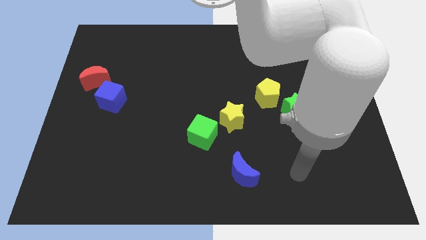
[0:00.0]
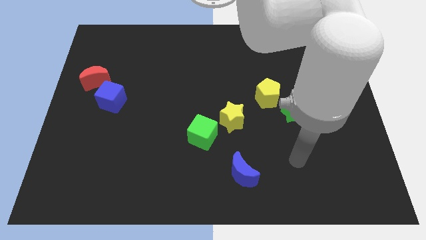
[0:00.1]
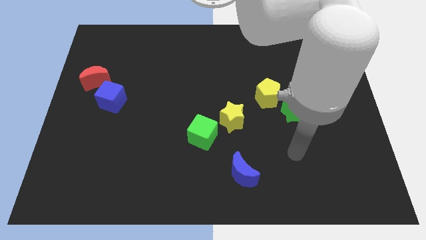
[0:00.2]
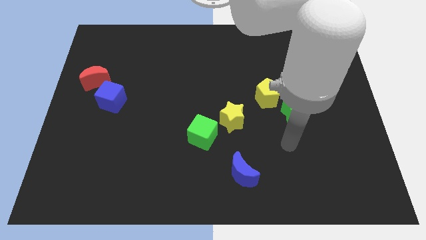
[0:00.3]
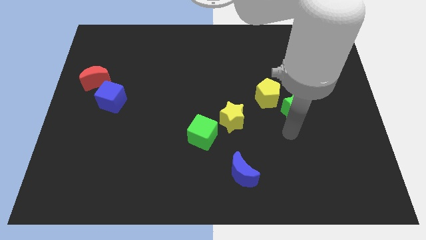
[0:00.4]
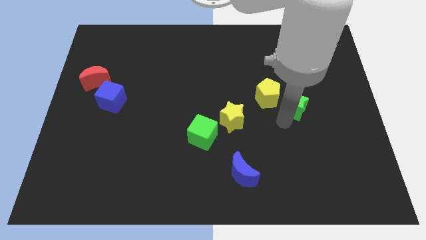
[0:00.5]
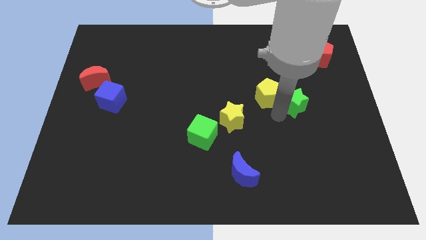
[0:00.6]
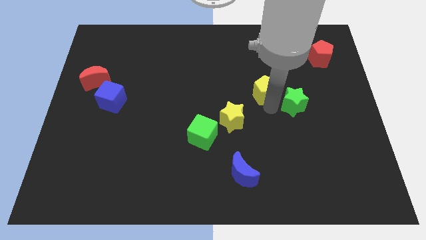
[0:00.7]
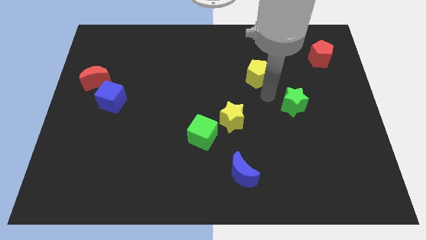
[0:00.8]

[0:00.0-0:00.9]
pull the green star apart from the yellow pentagon

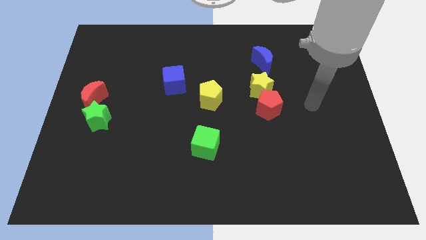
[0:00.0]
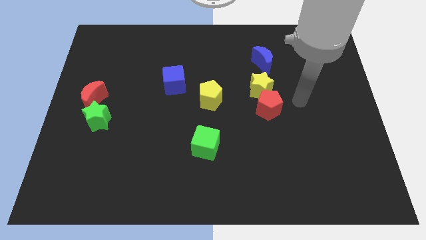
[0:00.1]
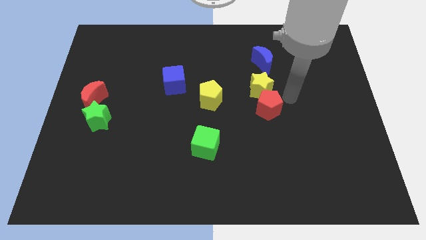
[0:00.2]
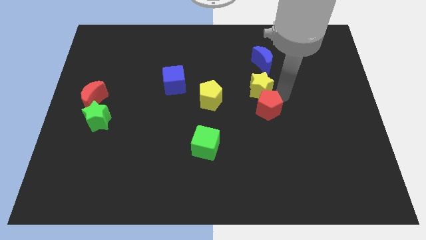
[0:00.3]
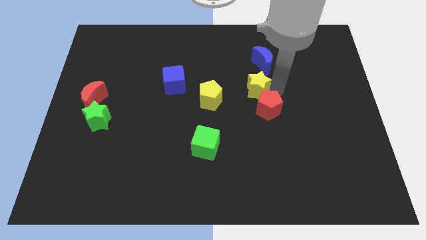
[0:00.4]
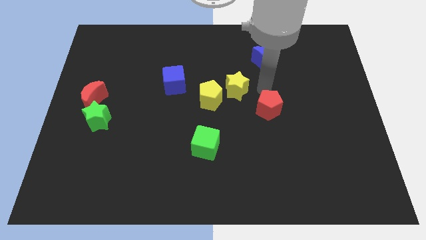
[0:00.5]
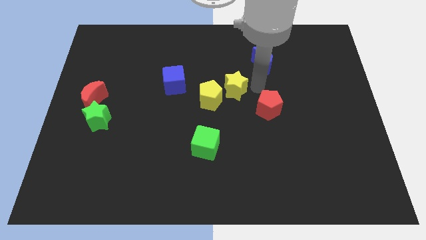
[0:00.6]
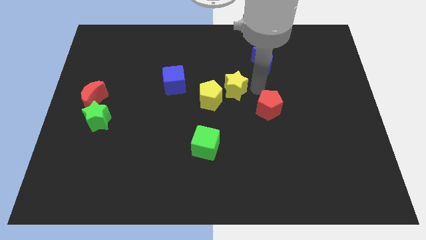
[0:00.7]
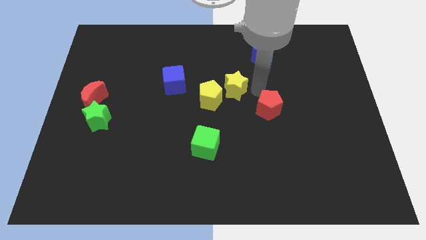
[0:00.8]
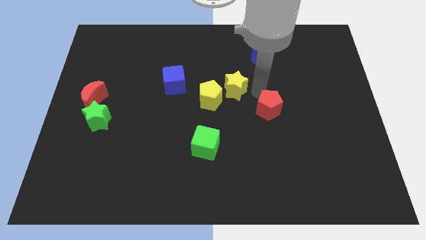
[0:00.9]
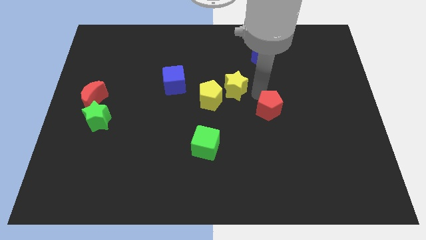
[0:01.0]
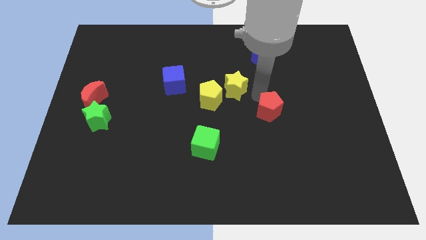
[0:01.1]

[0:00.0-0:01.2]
move the red pentagon away from the yellow star

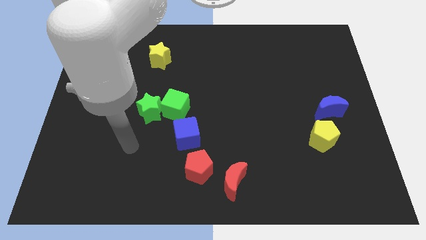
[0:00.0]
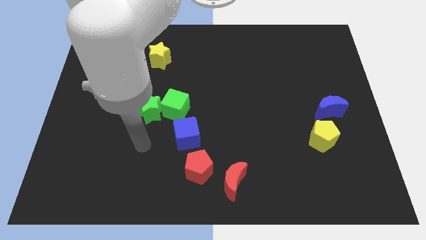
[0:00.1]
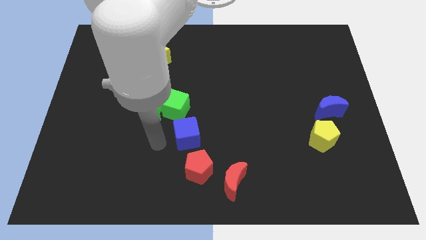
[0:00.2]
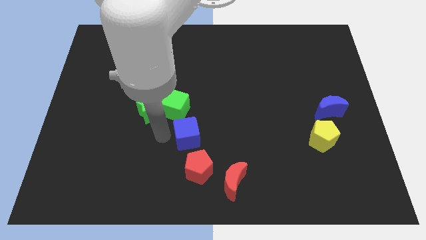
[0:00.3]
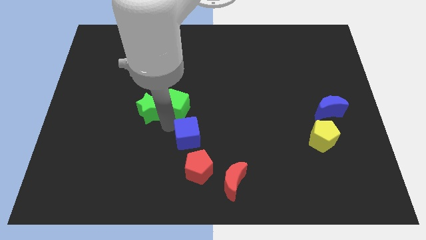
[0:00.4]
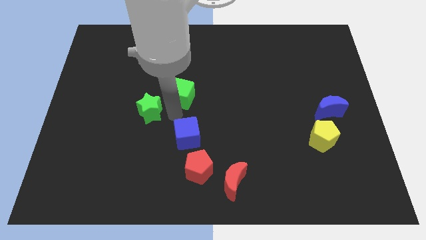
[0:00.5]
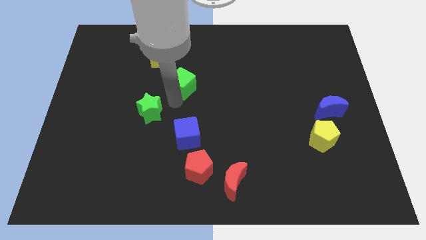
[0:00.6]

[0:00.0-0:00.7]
move the green star away from the green cube

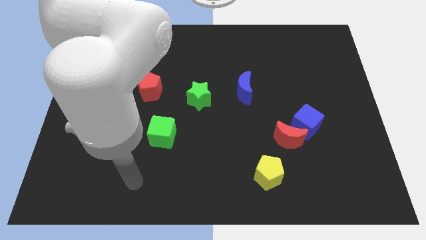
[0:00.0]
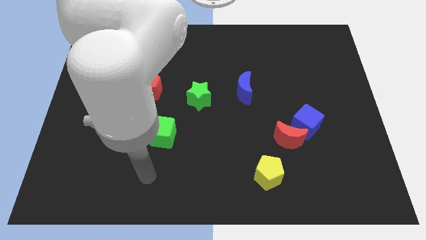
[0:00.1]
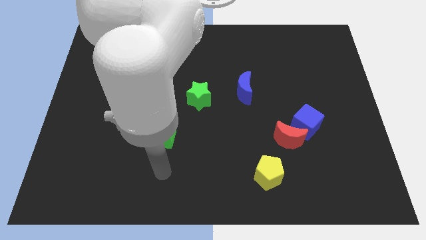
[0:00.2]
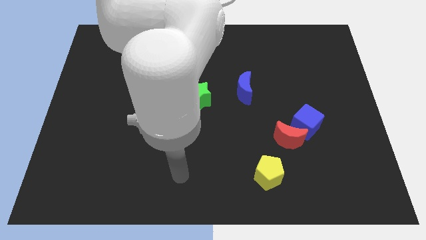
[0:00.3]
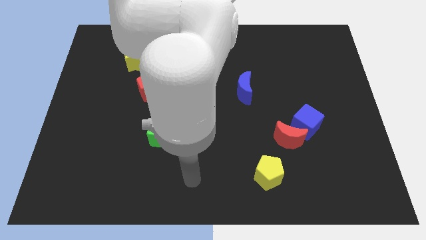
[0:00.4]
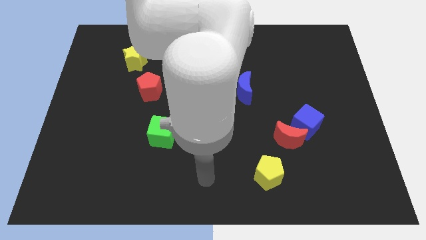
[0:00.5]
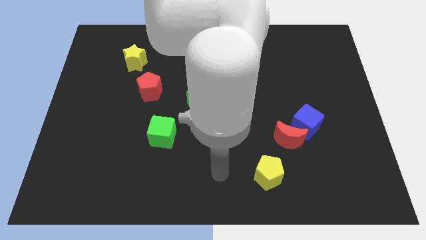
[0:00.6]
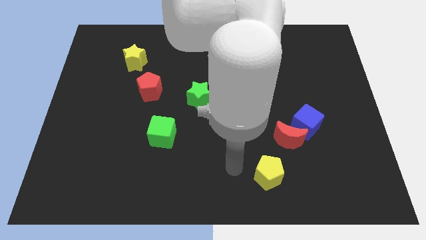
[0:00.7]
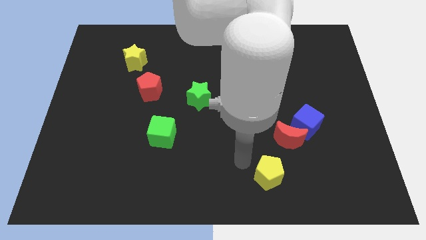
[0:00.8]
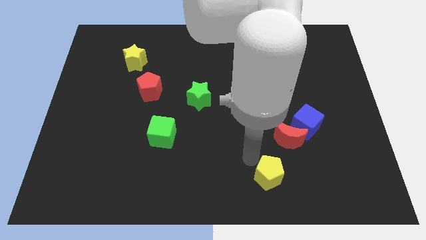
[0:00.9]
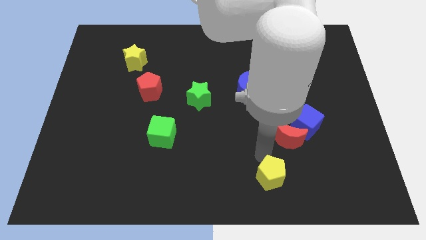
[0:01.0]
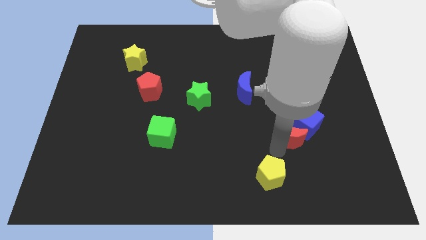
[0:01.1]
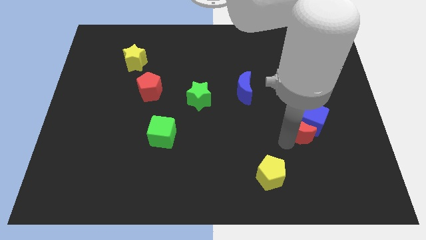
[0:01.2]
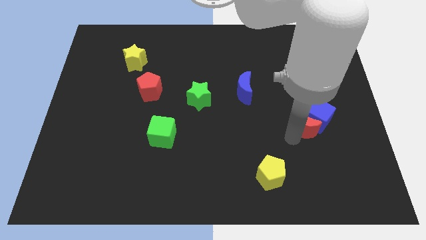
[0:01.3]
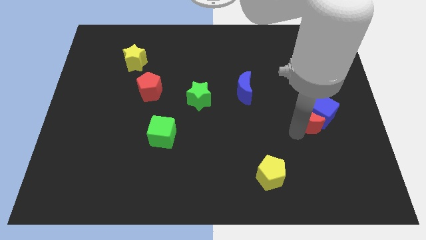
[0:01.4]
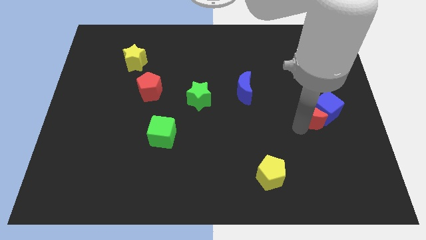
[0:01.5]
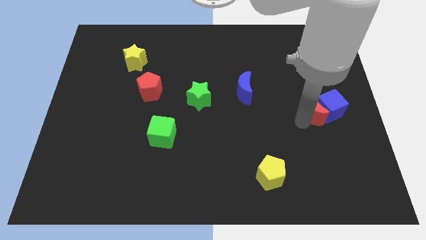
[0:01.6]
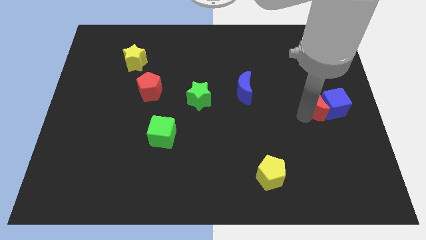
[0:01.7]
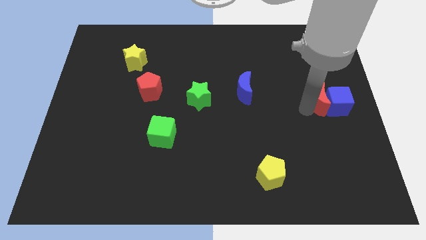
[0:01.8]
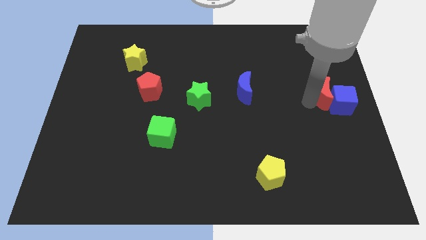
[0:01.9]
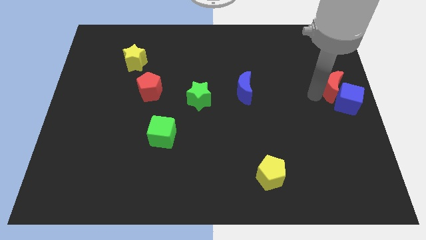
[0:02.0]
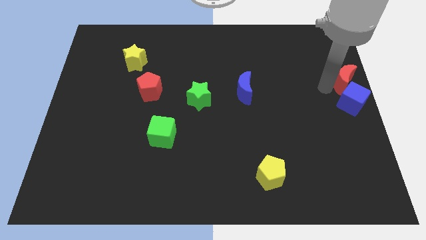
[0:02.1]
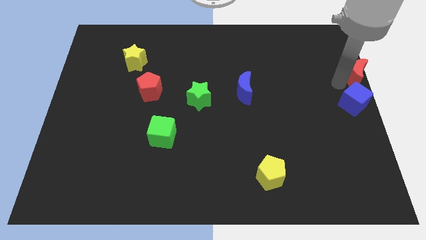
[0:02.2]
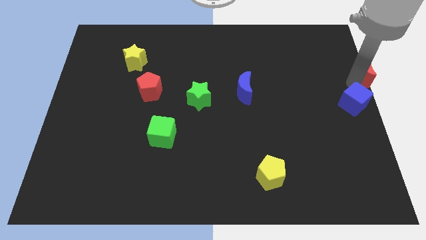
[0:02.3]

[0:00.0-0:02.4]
separate the blue cube from the red moon

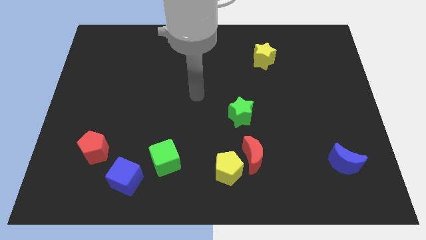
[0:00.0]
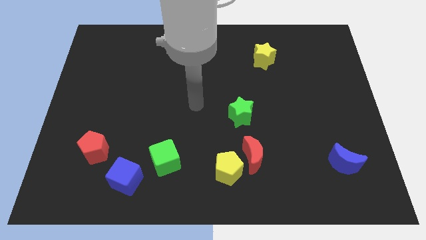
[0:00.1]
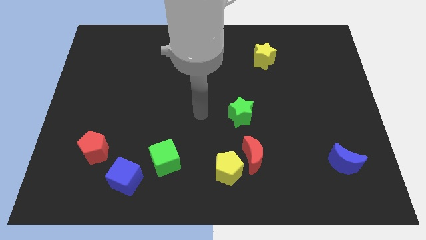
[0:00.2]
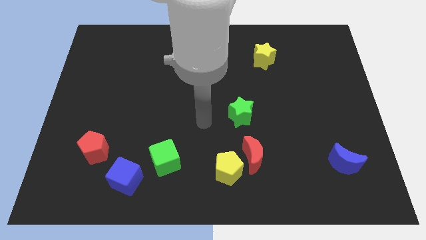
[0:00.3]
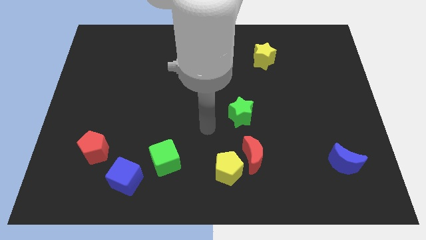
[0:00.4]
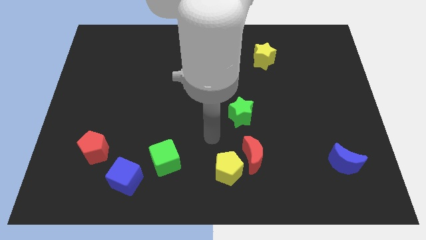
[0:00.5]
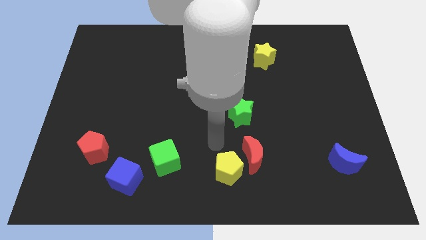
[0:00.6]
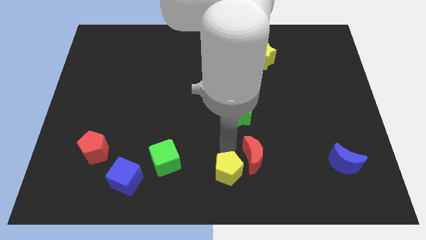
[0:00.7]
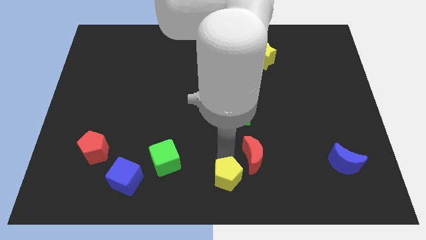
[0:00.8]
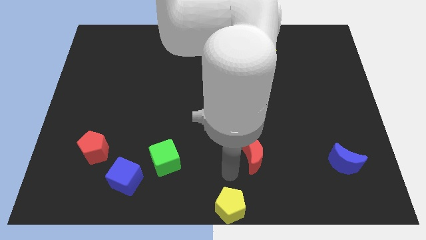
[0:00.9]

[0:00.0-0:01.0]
separate the red moon from the yellow pentagon

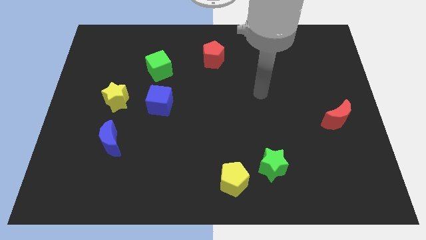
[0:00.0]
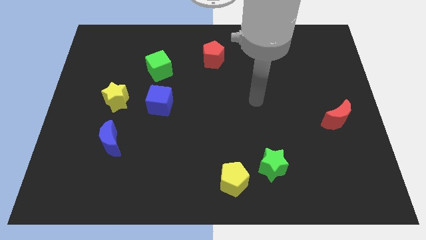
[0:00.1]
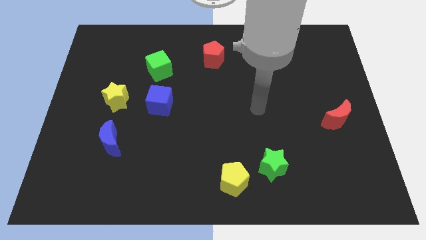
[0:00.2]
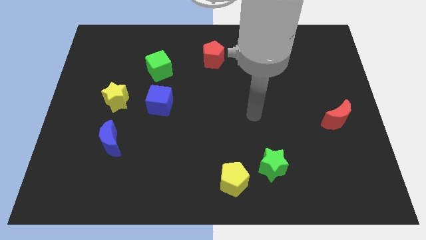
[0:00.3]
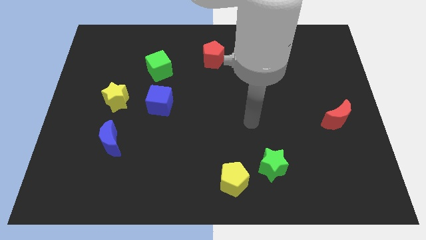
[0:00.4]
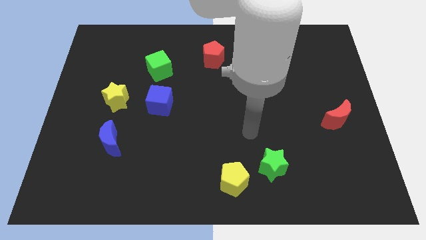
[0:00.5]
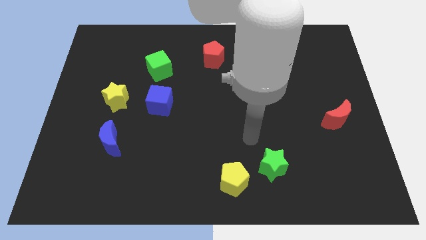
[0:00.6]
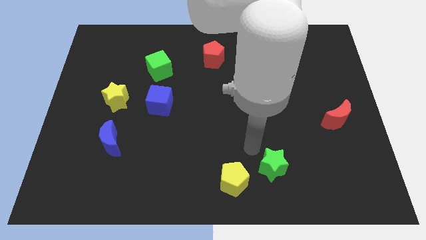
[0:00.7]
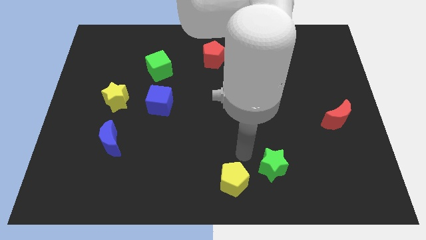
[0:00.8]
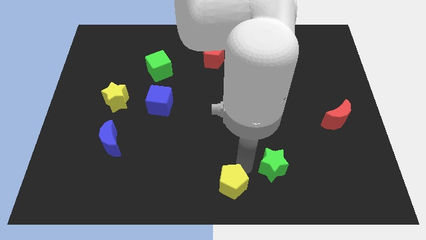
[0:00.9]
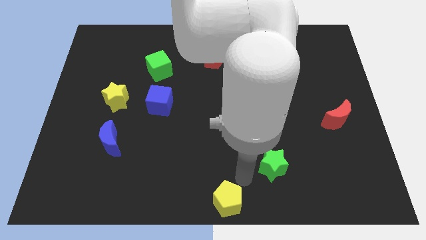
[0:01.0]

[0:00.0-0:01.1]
separate the green star from the yellow pentagon

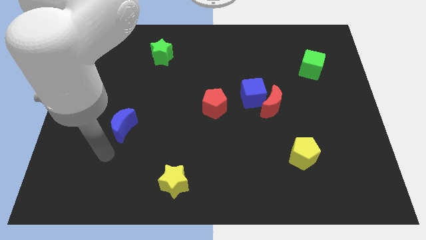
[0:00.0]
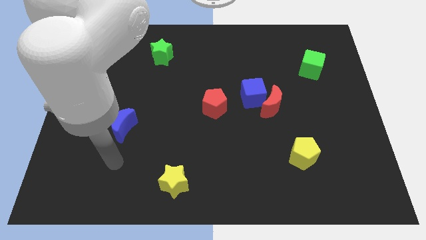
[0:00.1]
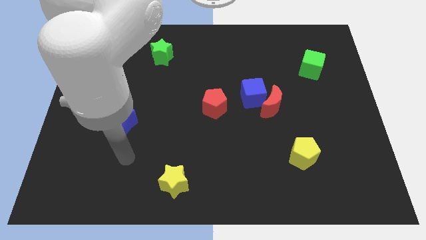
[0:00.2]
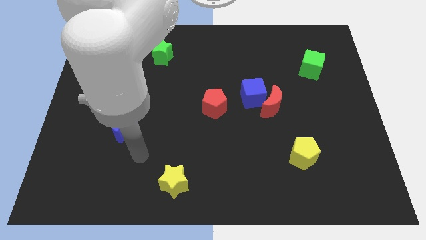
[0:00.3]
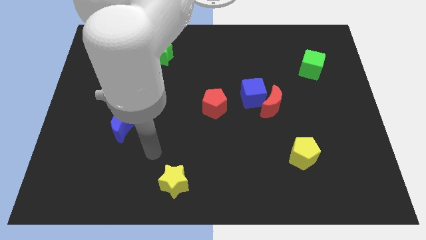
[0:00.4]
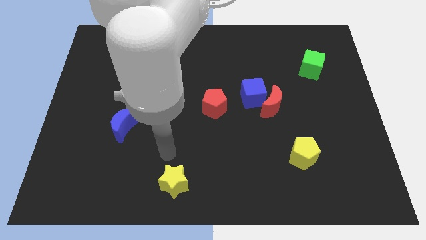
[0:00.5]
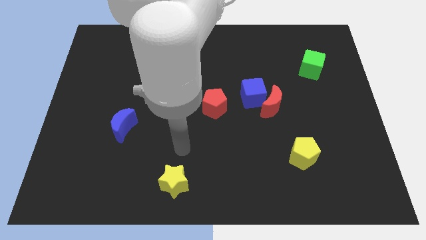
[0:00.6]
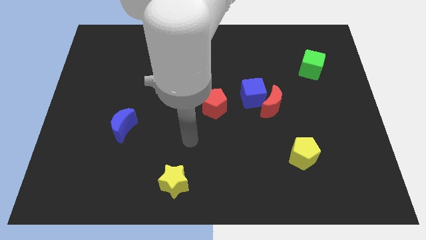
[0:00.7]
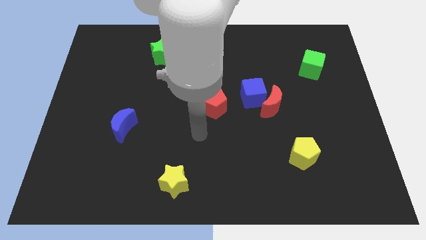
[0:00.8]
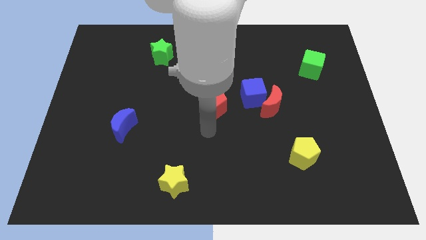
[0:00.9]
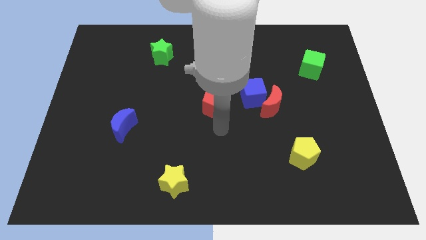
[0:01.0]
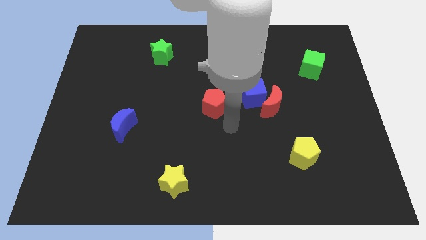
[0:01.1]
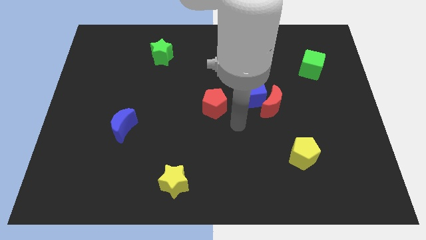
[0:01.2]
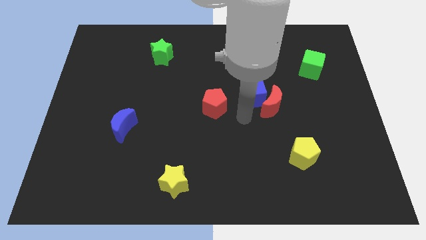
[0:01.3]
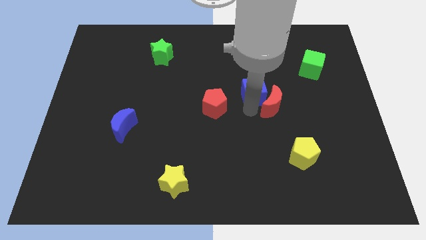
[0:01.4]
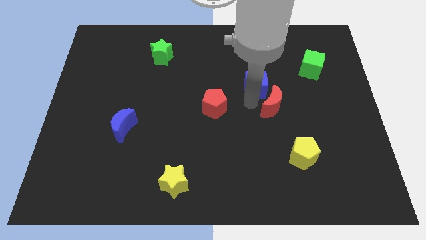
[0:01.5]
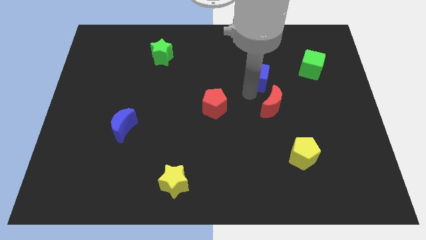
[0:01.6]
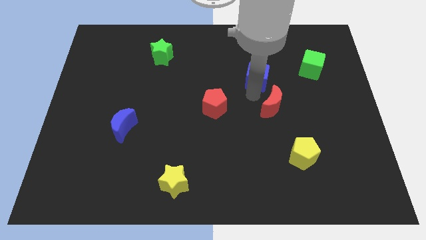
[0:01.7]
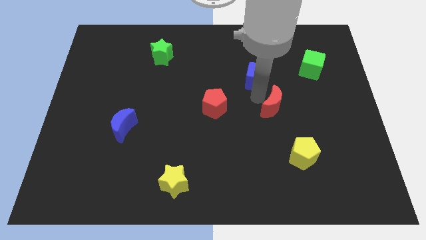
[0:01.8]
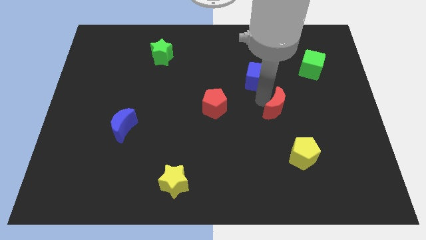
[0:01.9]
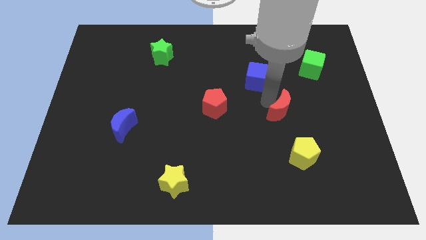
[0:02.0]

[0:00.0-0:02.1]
separate the red moon from the blue cube
